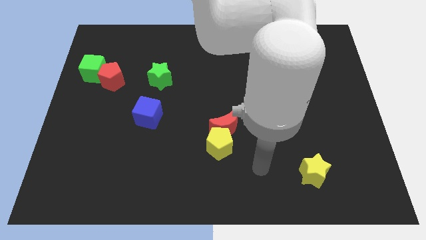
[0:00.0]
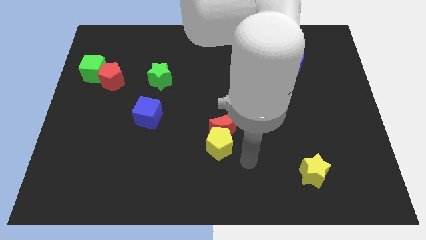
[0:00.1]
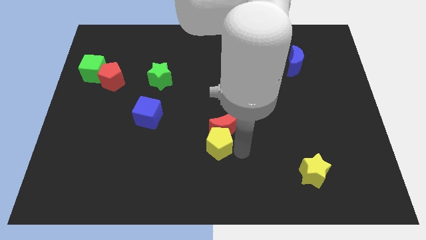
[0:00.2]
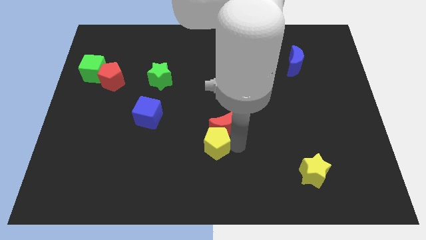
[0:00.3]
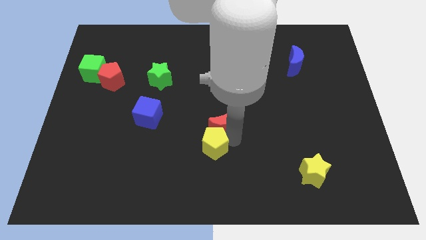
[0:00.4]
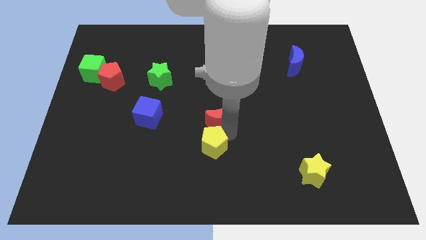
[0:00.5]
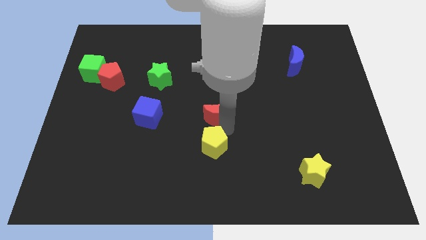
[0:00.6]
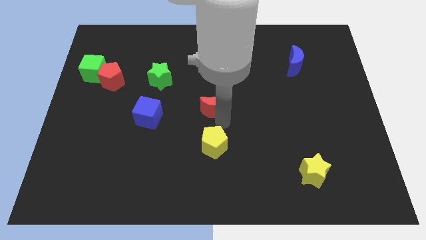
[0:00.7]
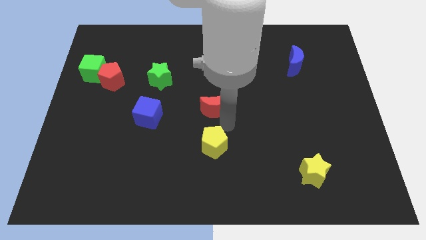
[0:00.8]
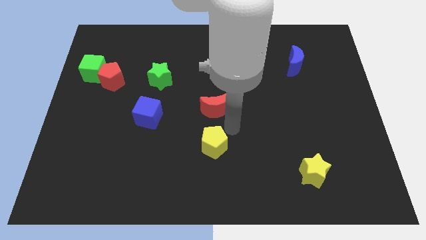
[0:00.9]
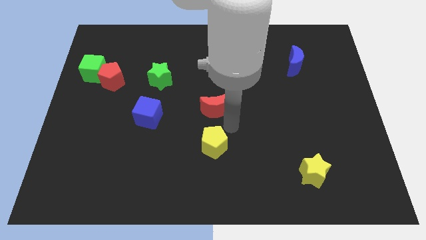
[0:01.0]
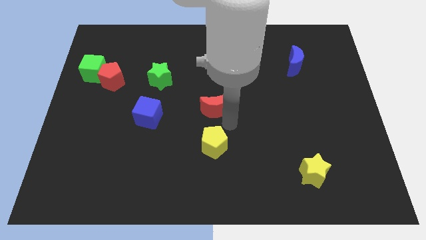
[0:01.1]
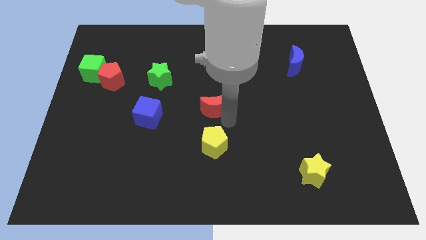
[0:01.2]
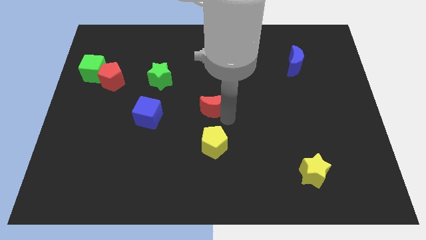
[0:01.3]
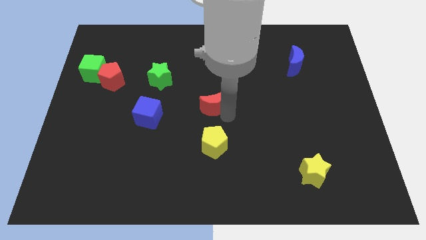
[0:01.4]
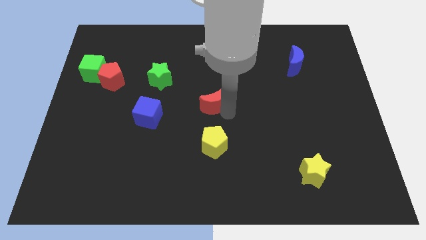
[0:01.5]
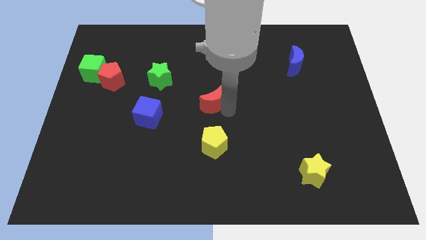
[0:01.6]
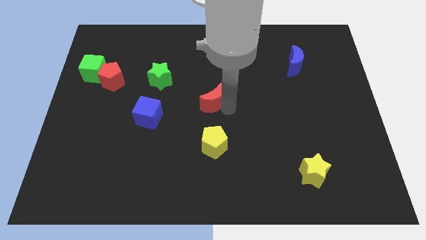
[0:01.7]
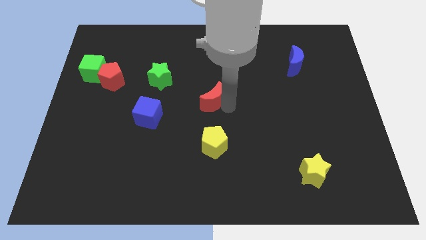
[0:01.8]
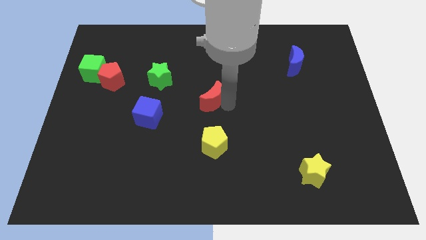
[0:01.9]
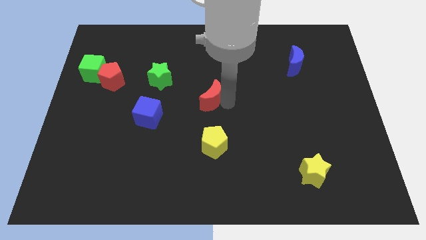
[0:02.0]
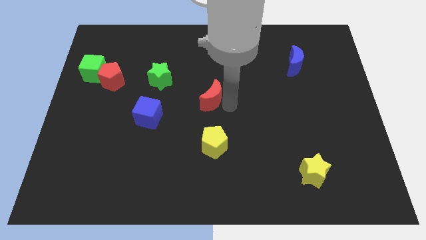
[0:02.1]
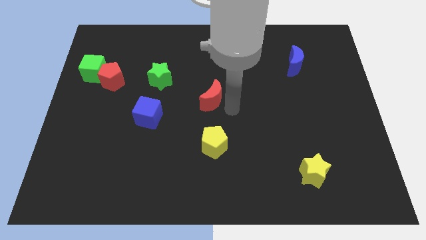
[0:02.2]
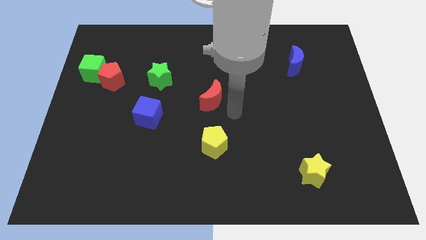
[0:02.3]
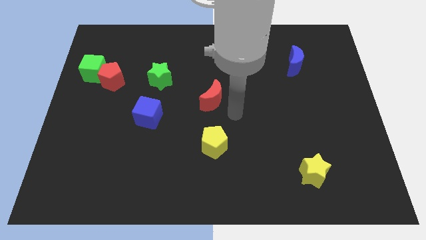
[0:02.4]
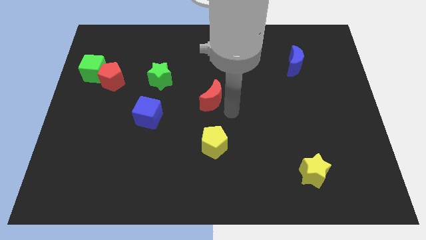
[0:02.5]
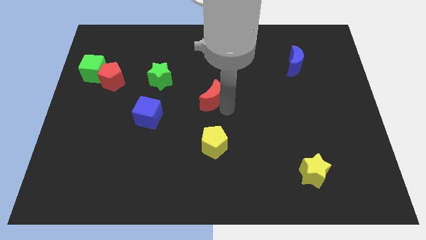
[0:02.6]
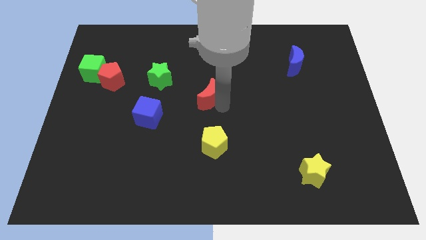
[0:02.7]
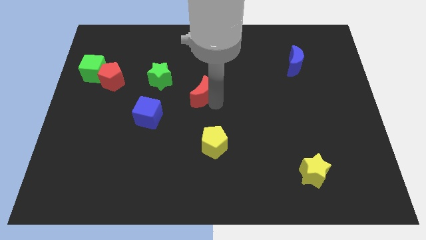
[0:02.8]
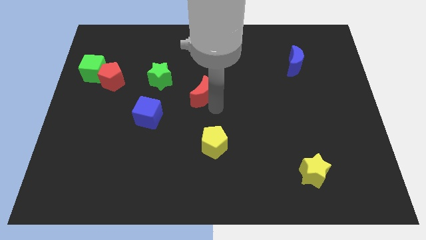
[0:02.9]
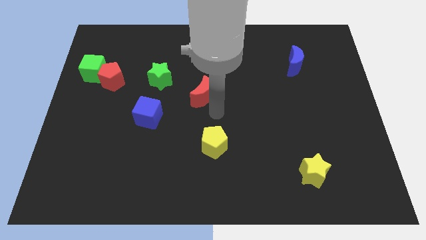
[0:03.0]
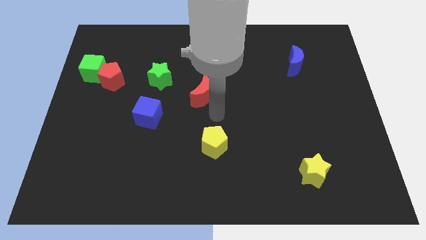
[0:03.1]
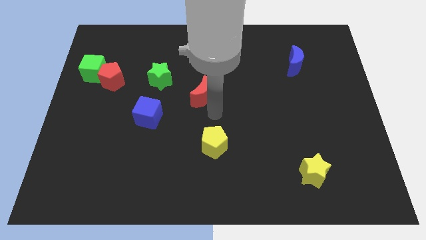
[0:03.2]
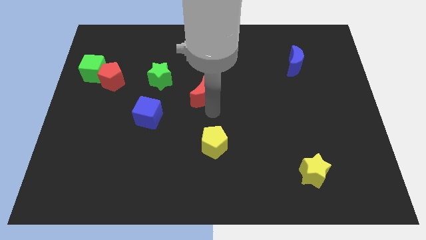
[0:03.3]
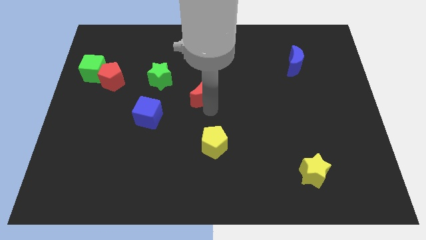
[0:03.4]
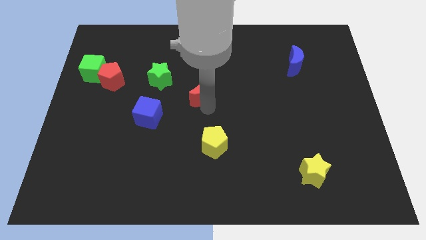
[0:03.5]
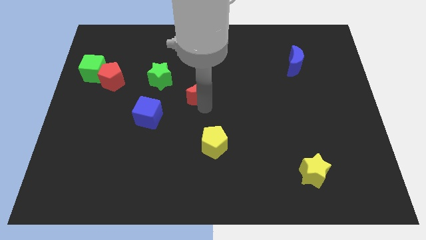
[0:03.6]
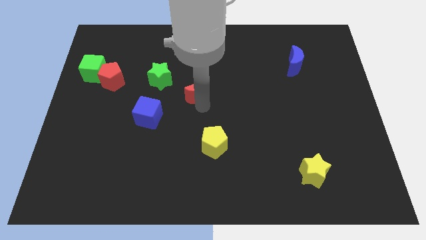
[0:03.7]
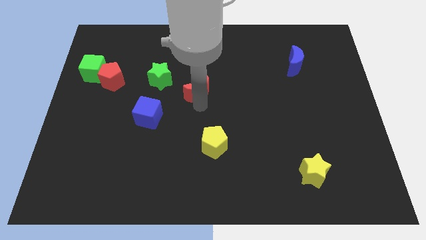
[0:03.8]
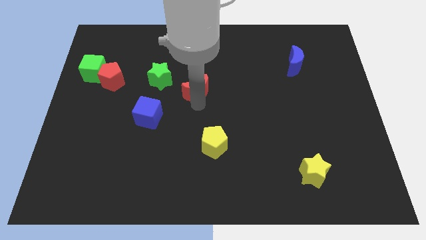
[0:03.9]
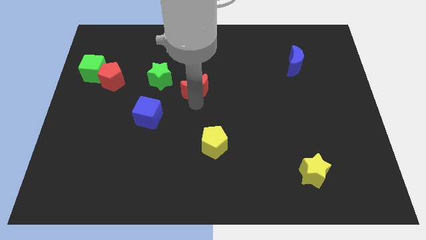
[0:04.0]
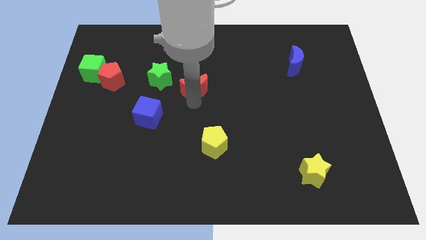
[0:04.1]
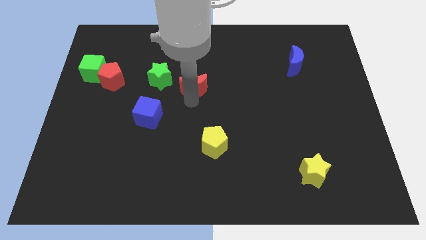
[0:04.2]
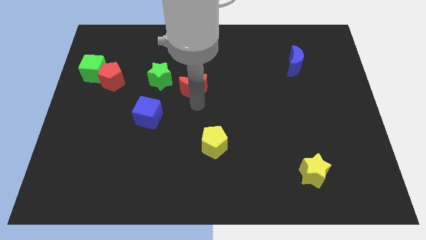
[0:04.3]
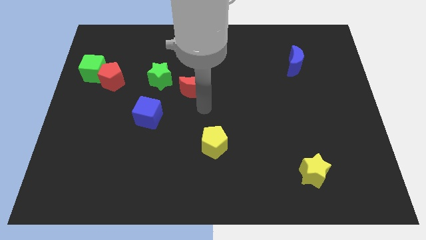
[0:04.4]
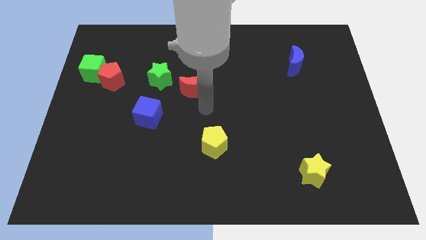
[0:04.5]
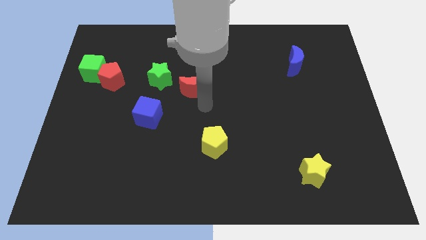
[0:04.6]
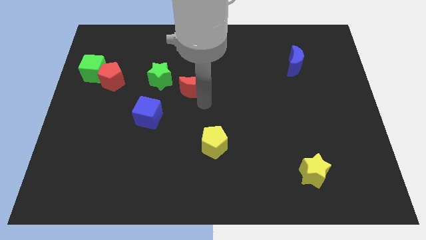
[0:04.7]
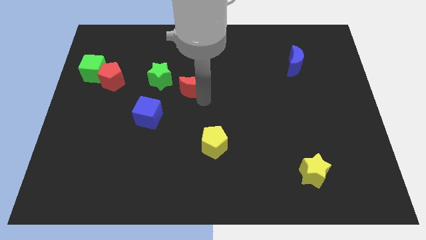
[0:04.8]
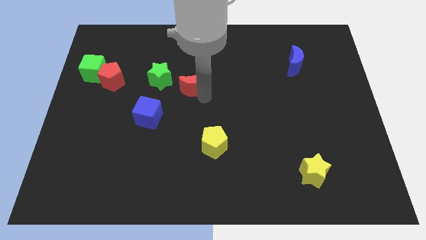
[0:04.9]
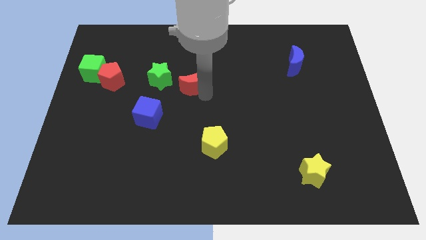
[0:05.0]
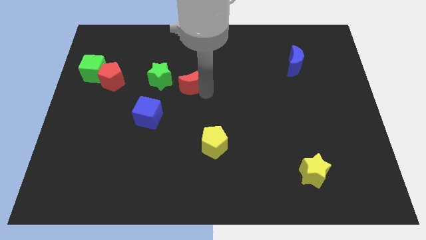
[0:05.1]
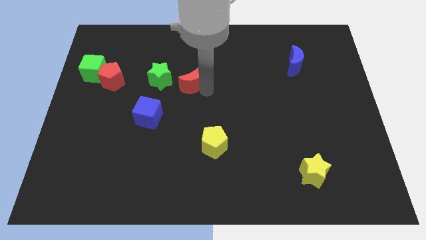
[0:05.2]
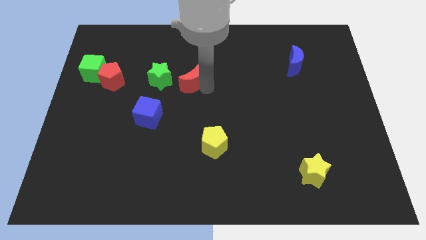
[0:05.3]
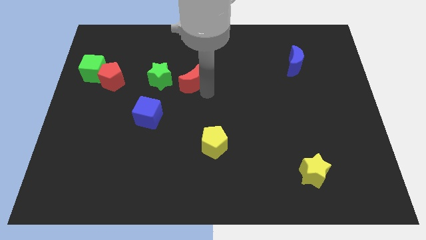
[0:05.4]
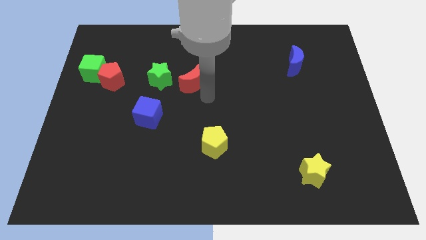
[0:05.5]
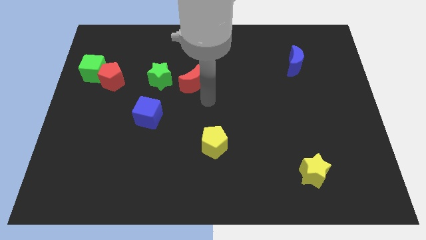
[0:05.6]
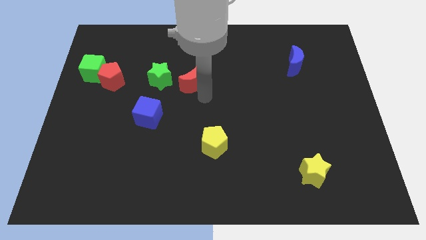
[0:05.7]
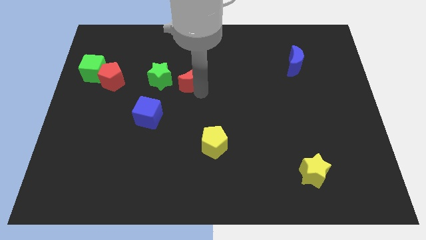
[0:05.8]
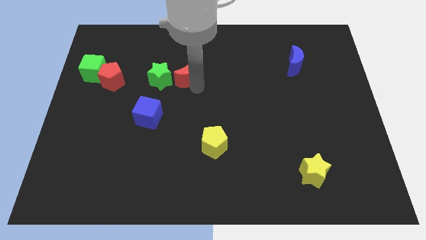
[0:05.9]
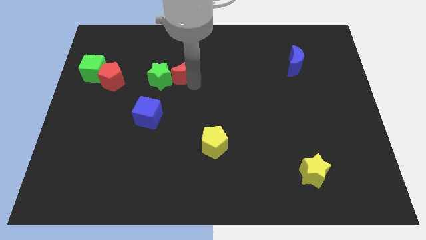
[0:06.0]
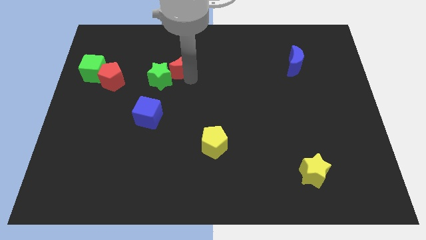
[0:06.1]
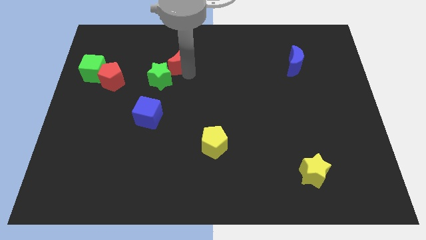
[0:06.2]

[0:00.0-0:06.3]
slide the red moon upwards and to the left

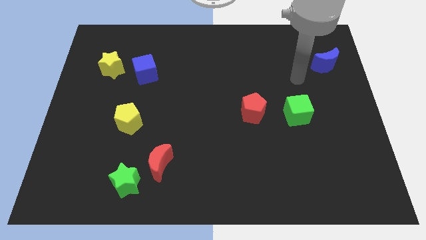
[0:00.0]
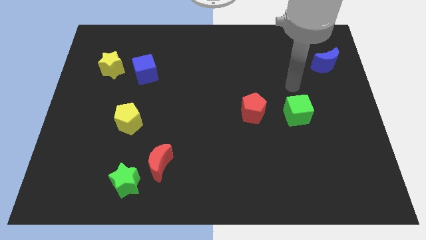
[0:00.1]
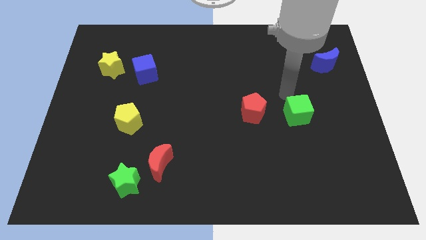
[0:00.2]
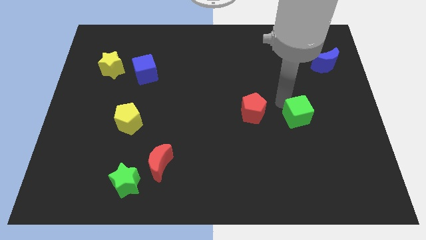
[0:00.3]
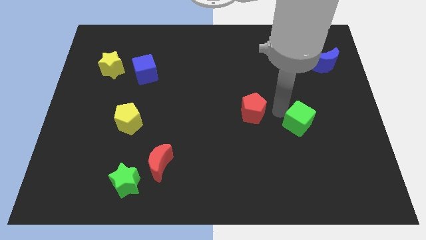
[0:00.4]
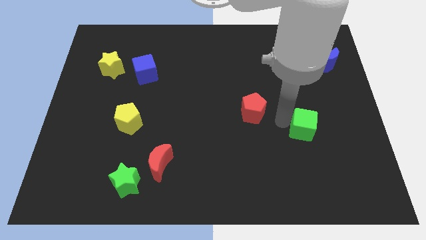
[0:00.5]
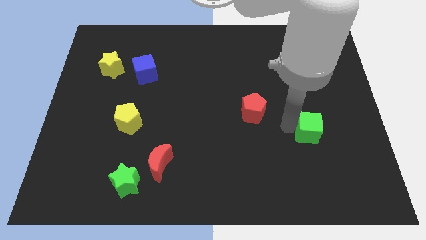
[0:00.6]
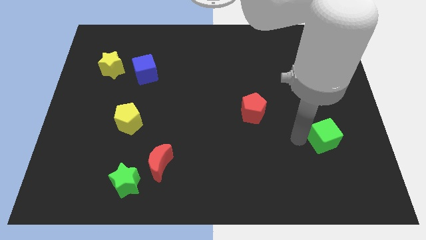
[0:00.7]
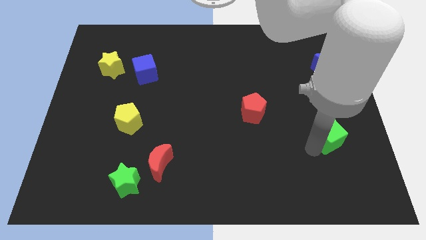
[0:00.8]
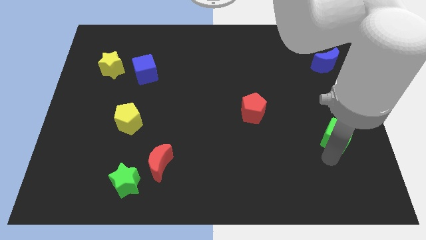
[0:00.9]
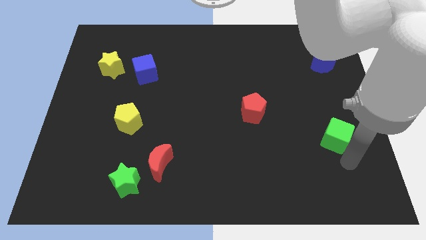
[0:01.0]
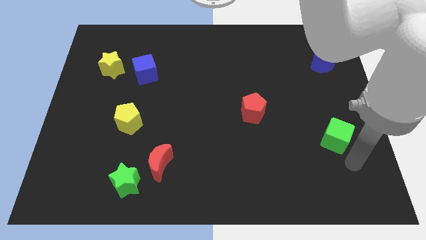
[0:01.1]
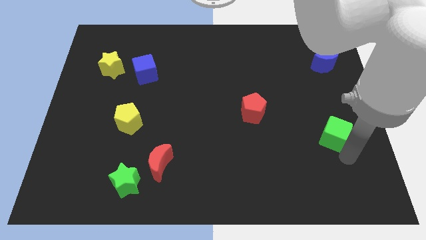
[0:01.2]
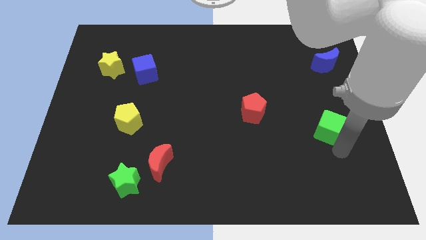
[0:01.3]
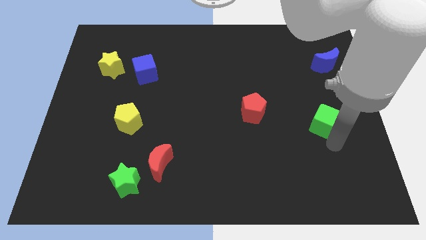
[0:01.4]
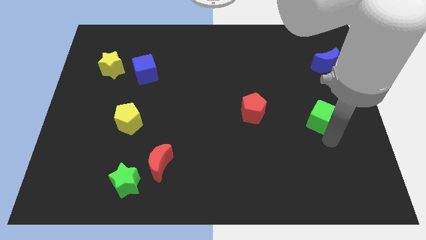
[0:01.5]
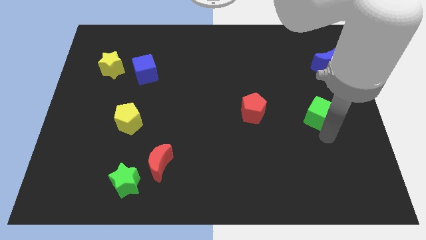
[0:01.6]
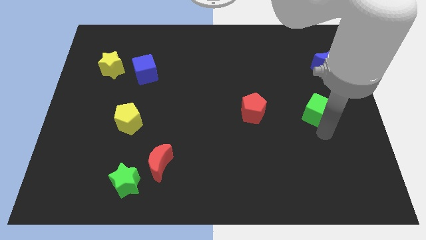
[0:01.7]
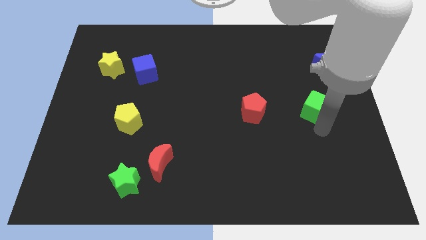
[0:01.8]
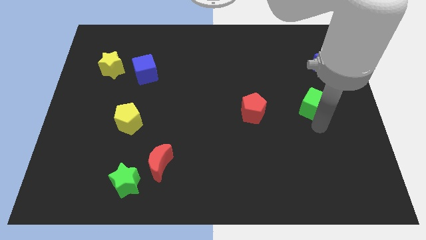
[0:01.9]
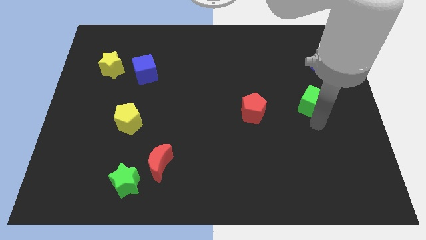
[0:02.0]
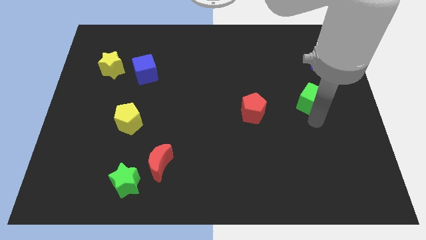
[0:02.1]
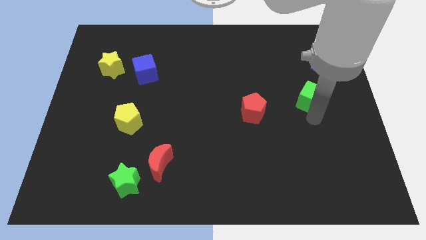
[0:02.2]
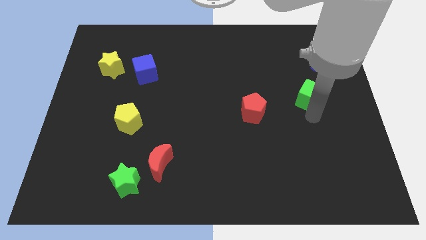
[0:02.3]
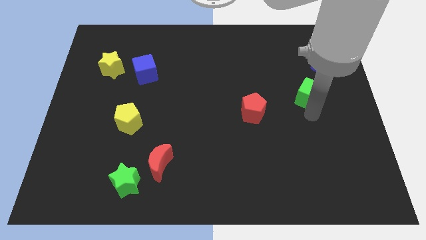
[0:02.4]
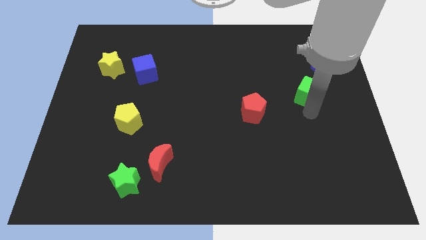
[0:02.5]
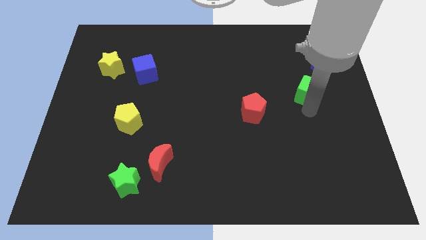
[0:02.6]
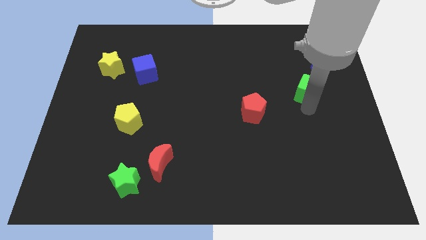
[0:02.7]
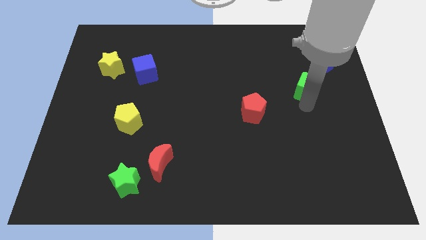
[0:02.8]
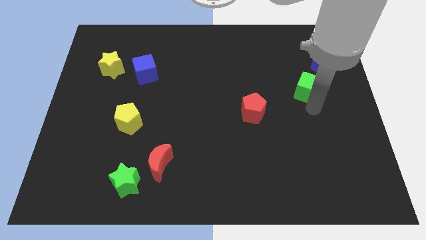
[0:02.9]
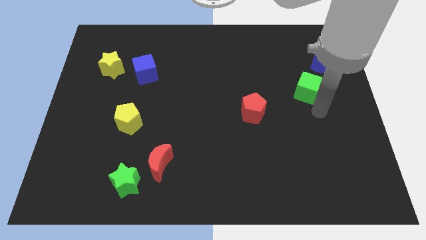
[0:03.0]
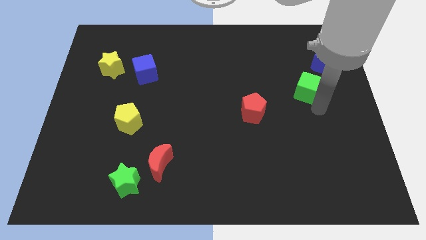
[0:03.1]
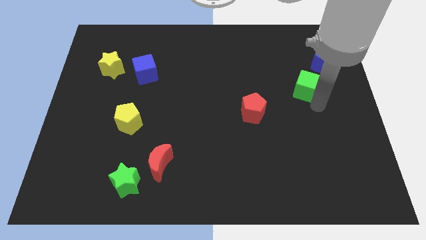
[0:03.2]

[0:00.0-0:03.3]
move the green cube upwards a little bit
